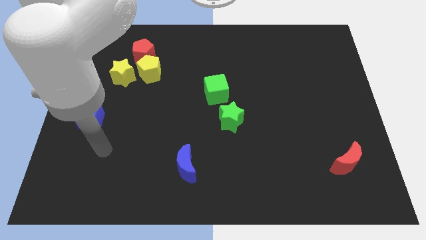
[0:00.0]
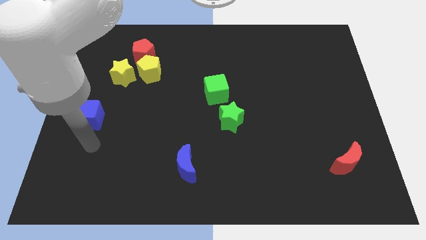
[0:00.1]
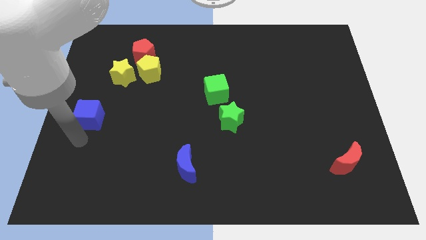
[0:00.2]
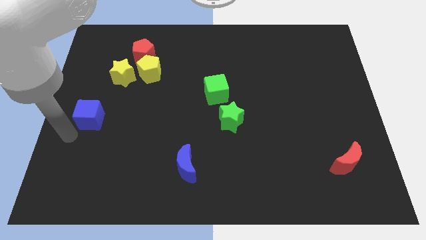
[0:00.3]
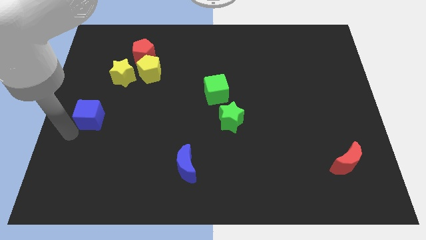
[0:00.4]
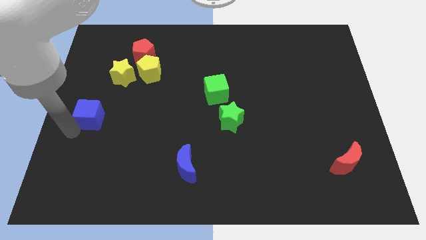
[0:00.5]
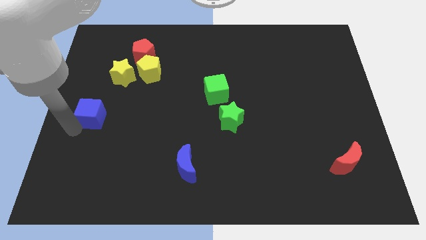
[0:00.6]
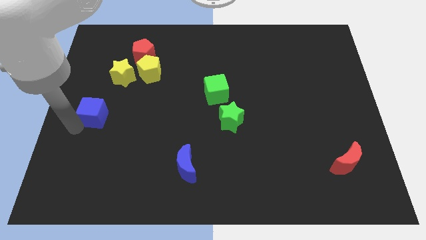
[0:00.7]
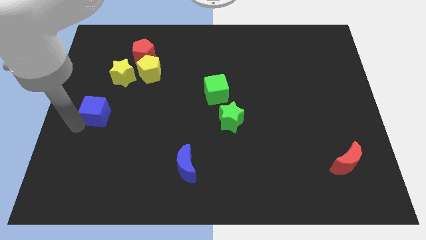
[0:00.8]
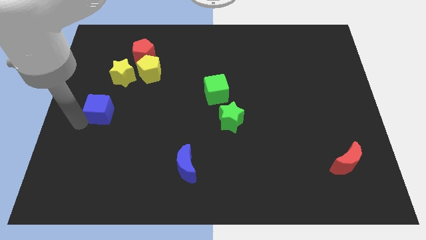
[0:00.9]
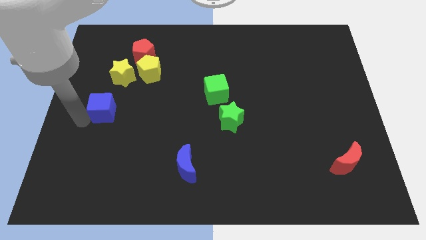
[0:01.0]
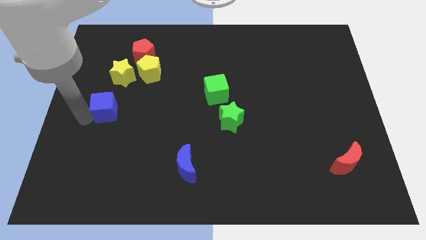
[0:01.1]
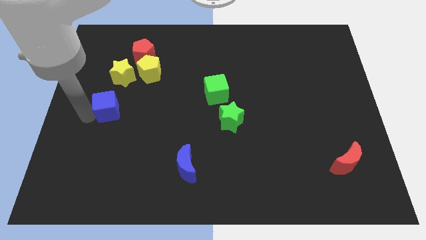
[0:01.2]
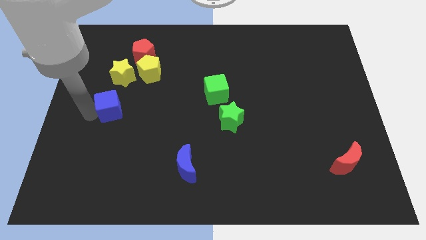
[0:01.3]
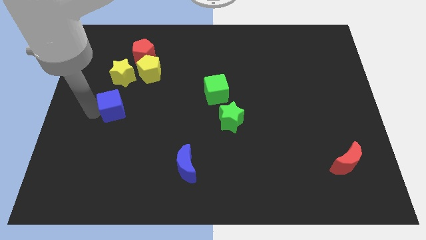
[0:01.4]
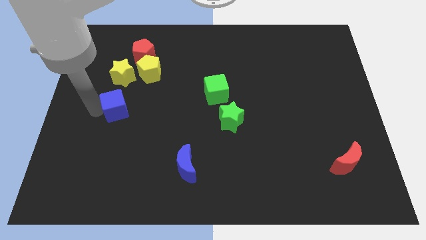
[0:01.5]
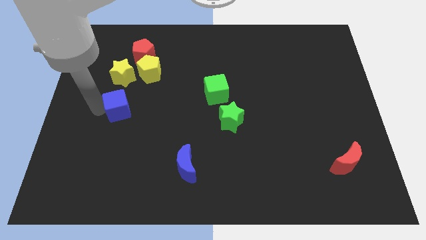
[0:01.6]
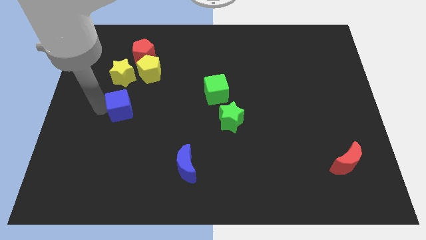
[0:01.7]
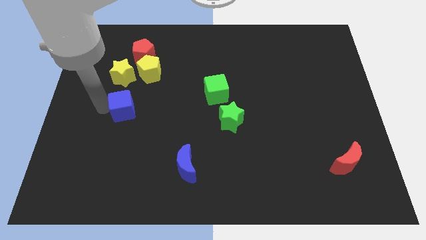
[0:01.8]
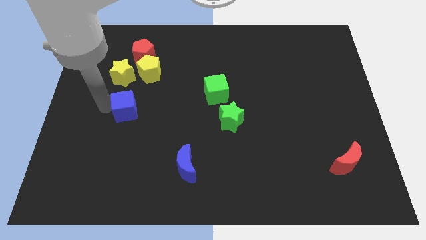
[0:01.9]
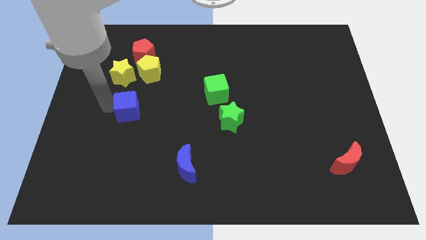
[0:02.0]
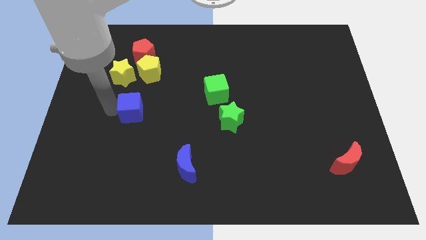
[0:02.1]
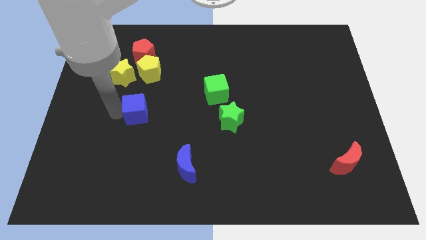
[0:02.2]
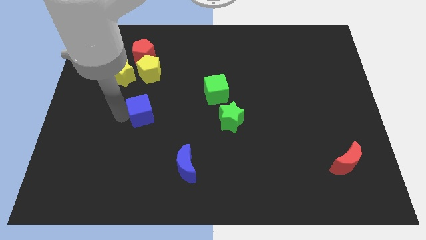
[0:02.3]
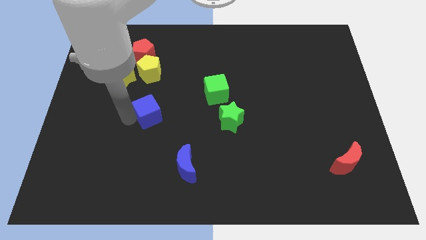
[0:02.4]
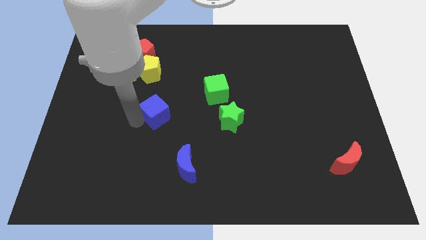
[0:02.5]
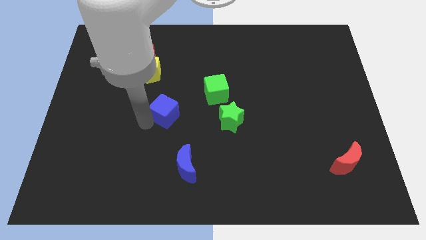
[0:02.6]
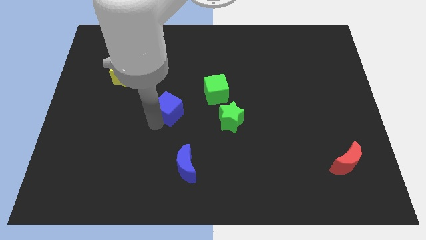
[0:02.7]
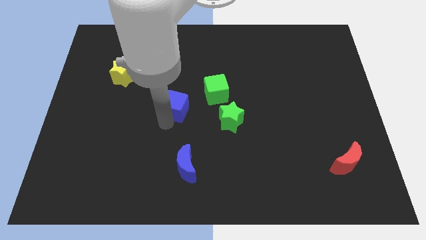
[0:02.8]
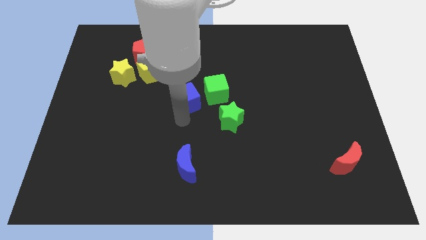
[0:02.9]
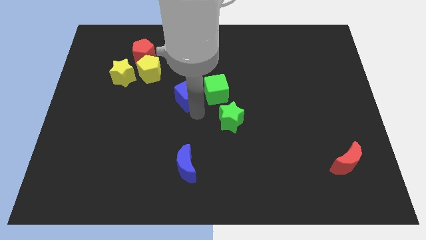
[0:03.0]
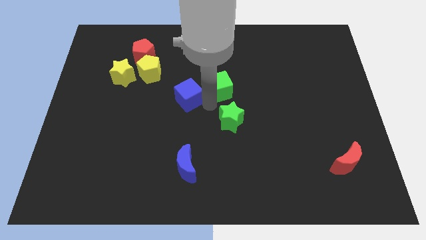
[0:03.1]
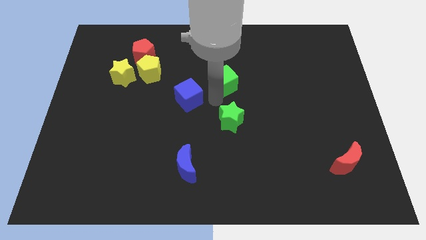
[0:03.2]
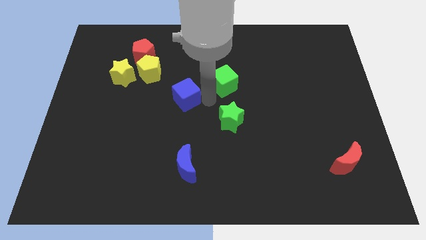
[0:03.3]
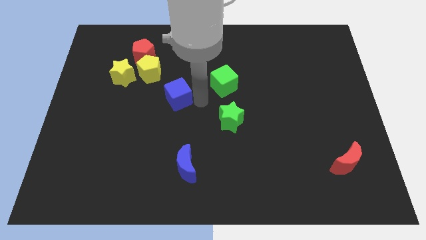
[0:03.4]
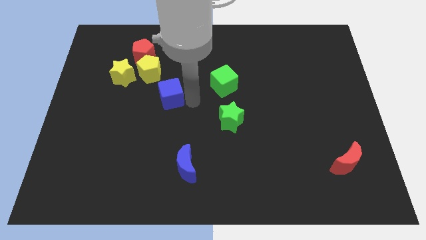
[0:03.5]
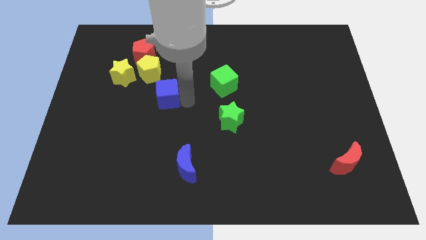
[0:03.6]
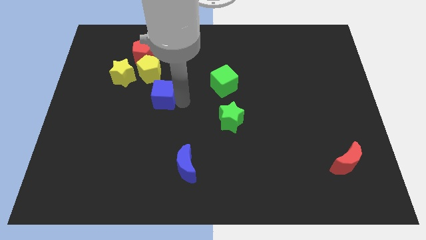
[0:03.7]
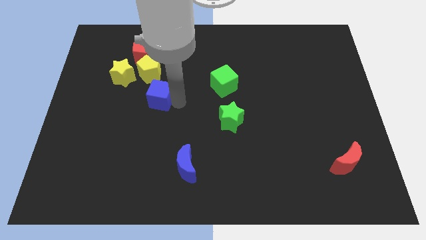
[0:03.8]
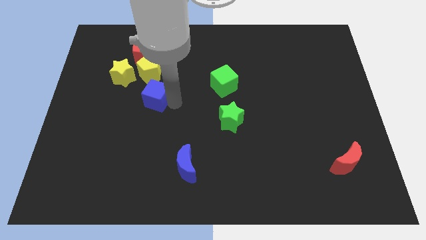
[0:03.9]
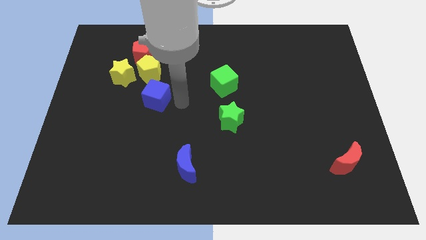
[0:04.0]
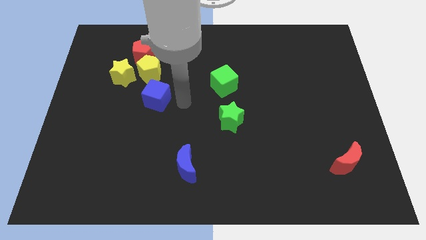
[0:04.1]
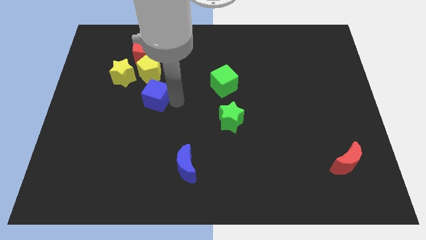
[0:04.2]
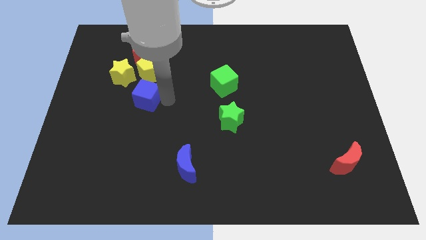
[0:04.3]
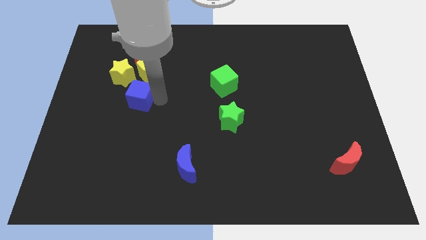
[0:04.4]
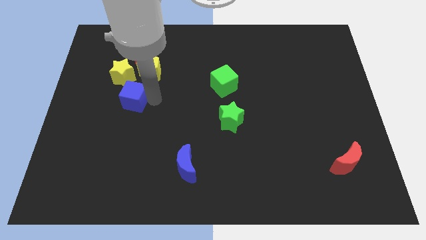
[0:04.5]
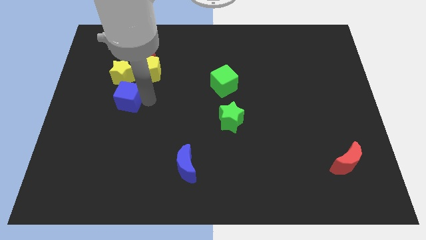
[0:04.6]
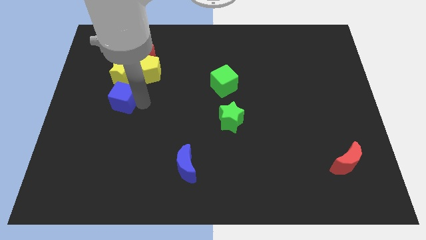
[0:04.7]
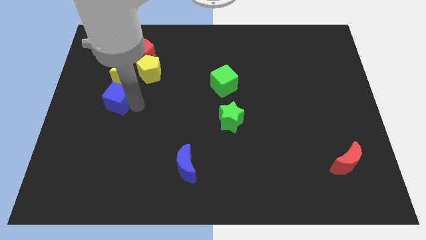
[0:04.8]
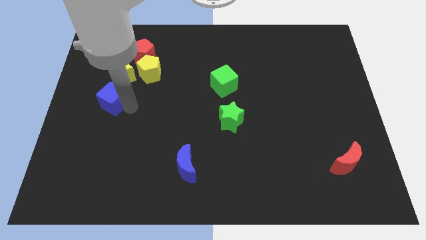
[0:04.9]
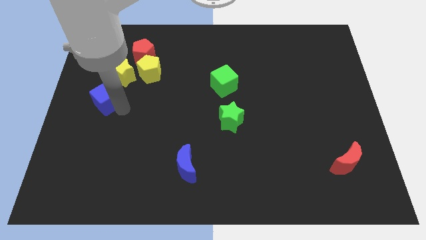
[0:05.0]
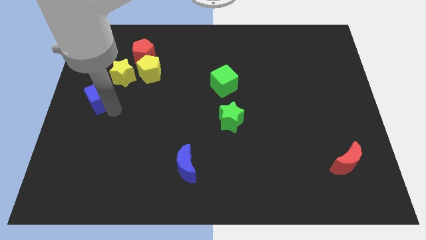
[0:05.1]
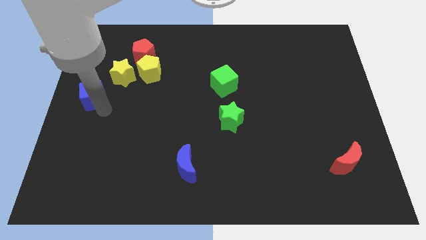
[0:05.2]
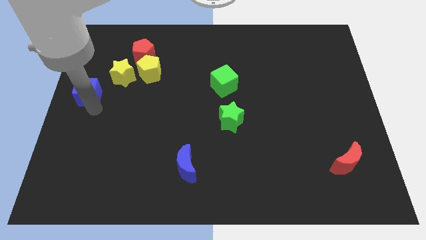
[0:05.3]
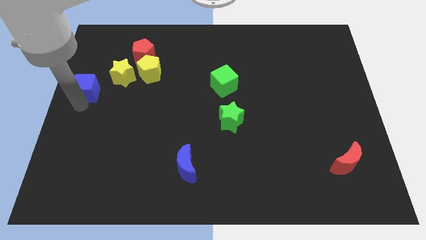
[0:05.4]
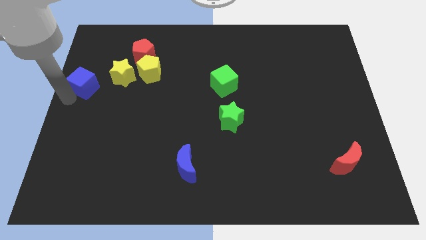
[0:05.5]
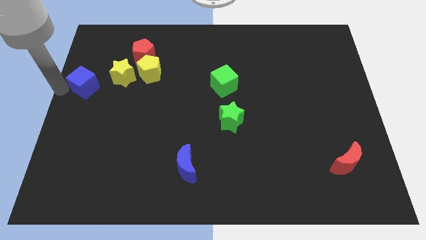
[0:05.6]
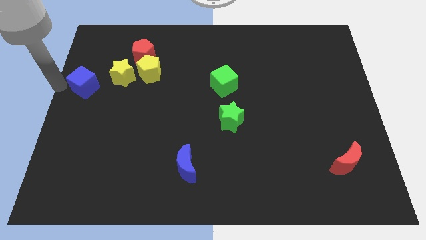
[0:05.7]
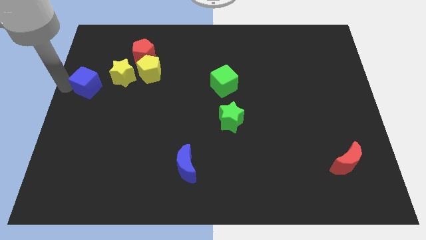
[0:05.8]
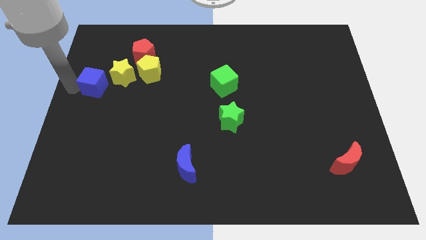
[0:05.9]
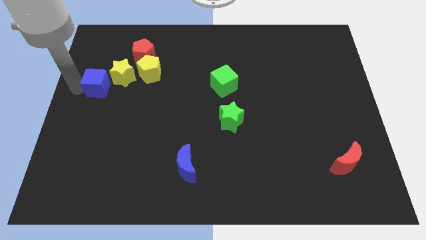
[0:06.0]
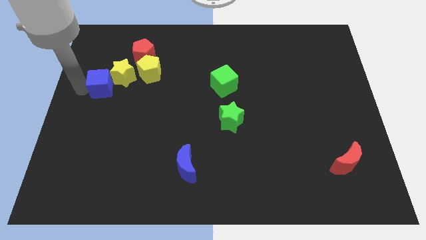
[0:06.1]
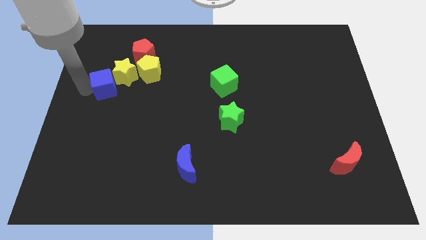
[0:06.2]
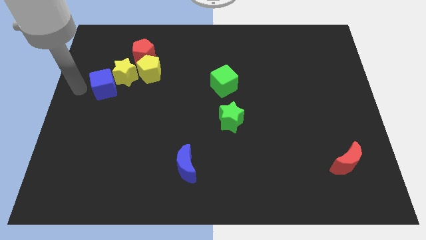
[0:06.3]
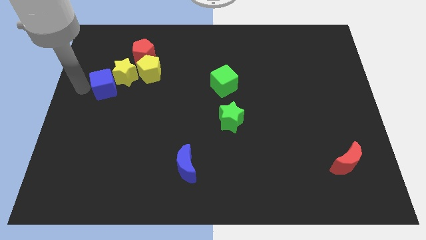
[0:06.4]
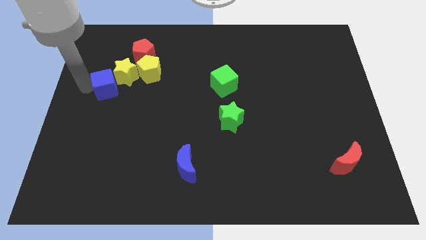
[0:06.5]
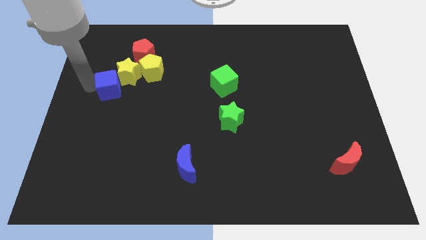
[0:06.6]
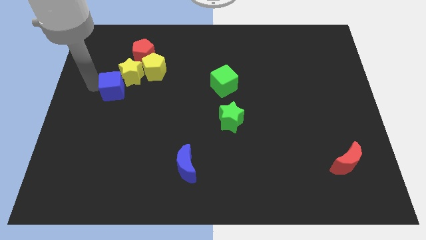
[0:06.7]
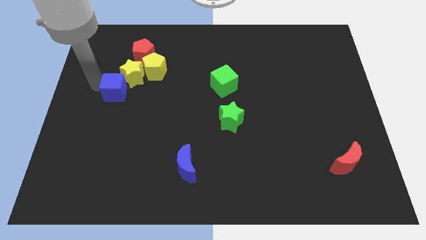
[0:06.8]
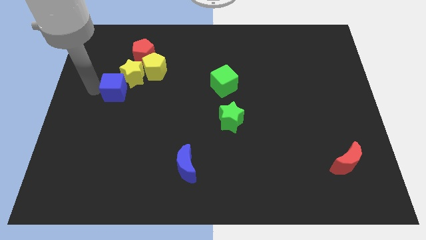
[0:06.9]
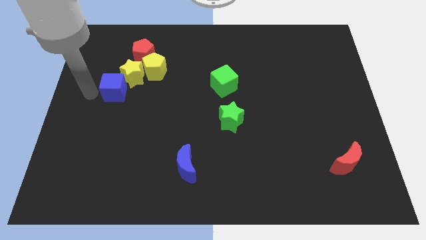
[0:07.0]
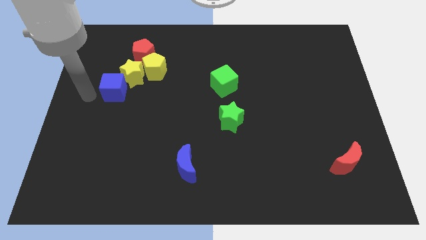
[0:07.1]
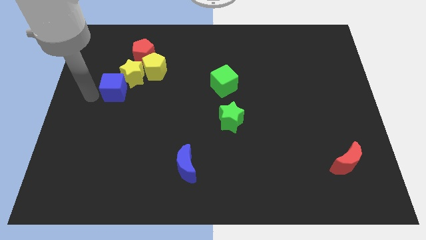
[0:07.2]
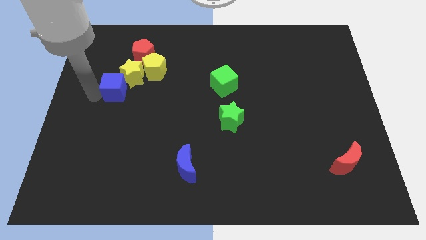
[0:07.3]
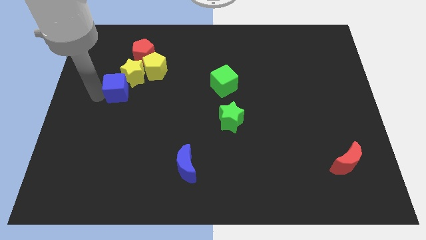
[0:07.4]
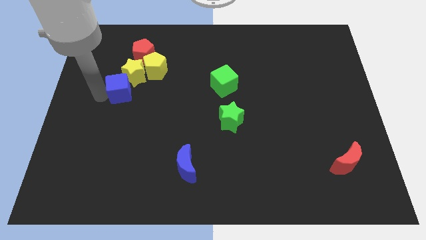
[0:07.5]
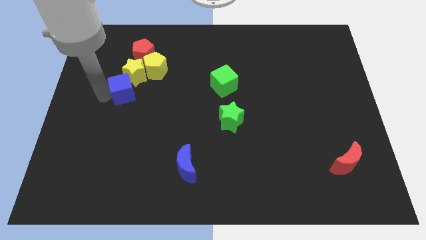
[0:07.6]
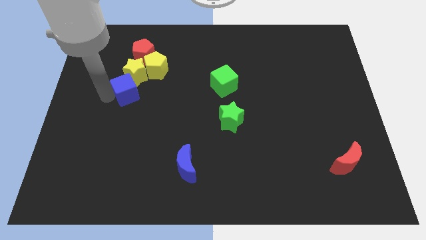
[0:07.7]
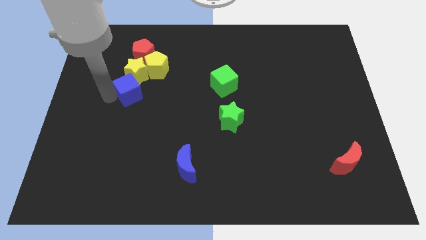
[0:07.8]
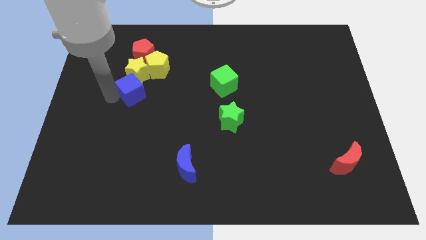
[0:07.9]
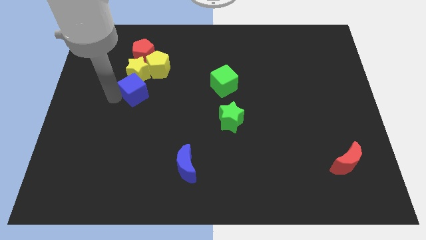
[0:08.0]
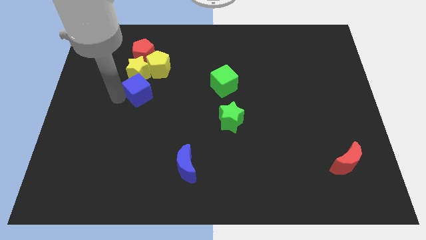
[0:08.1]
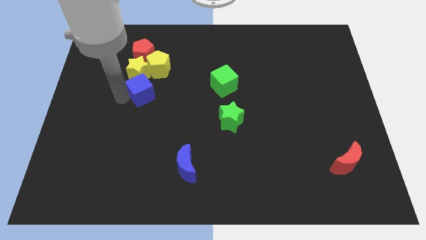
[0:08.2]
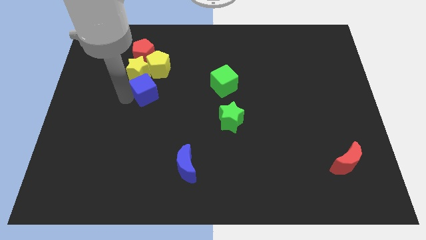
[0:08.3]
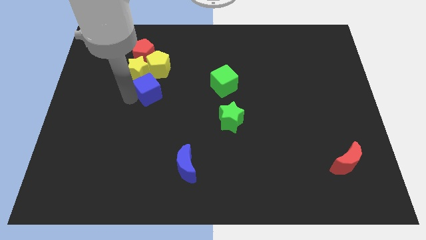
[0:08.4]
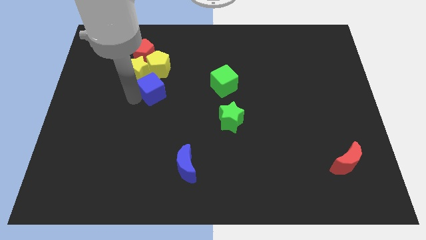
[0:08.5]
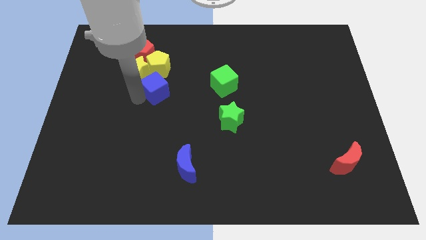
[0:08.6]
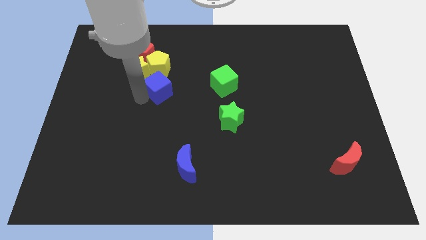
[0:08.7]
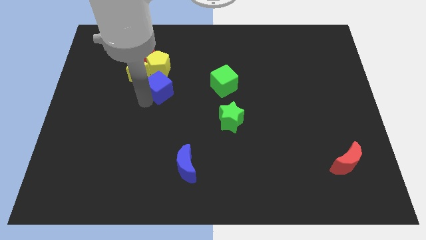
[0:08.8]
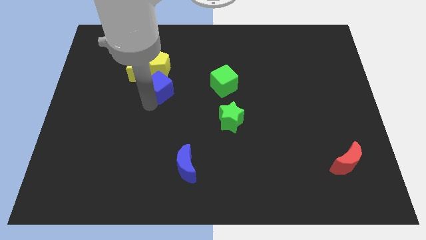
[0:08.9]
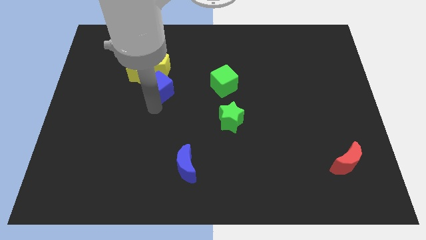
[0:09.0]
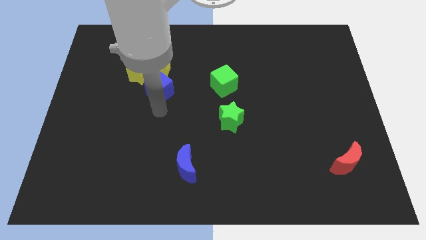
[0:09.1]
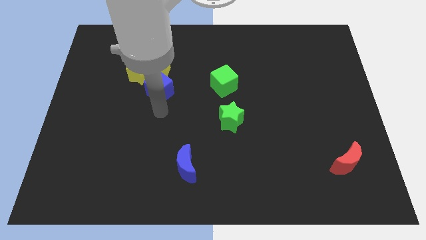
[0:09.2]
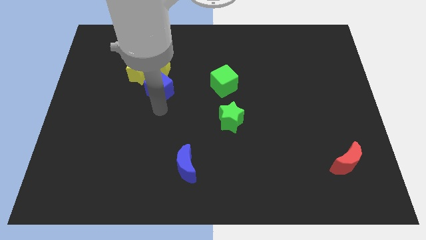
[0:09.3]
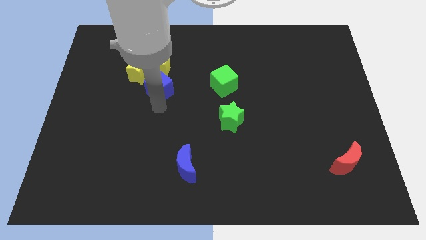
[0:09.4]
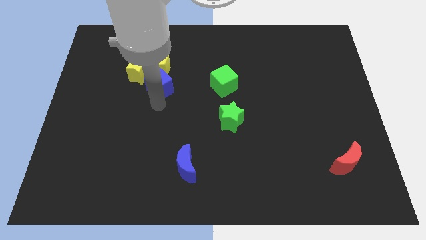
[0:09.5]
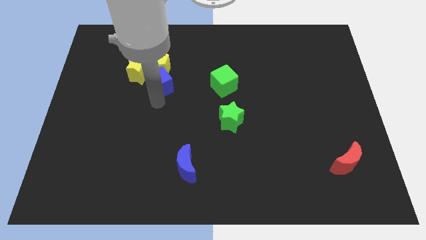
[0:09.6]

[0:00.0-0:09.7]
push the blue cube to the yellow pentagon
